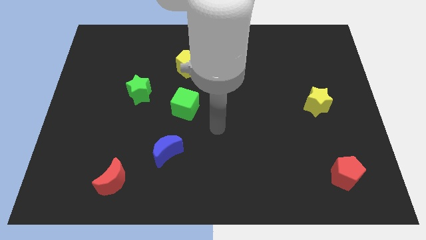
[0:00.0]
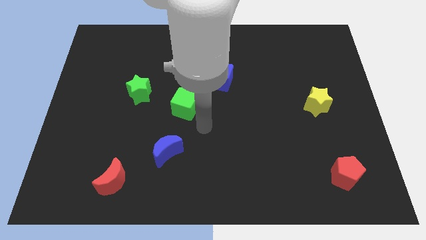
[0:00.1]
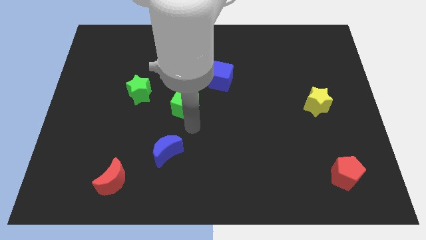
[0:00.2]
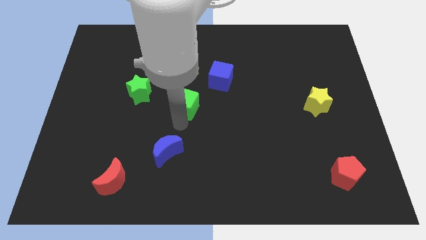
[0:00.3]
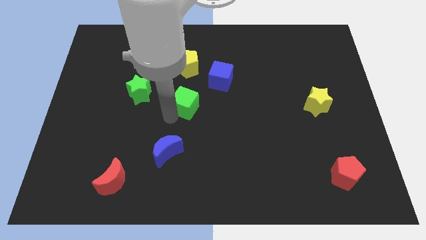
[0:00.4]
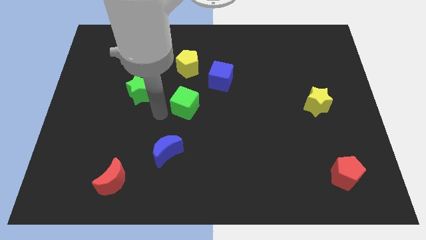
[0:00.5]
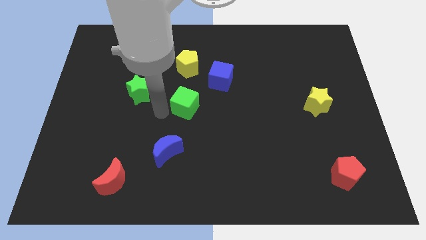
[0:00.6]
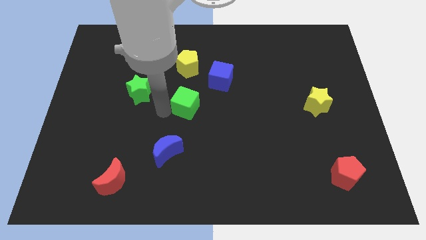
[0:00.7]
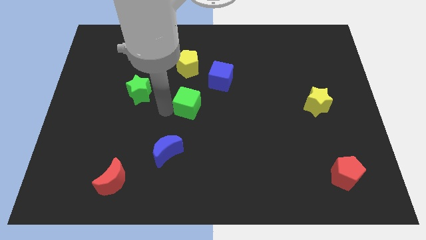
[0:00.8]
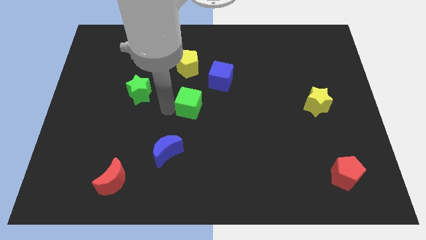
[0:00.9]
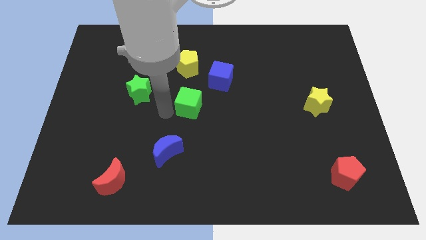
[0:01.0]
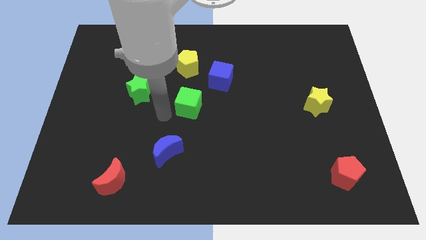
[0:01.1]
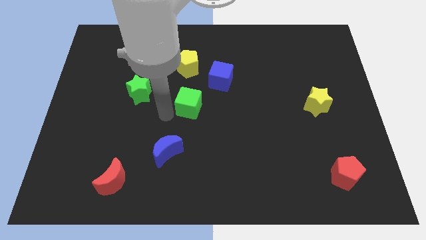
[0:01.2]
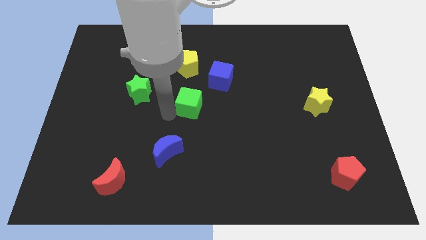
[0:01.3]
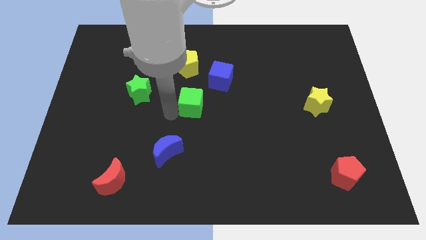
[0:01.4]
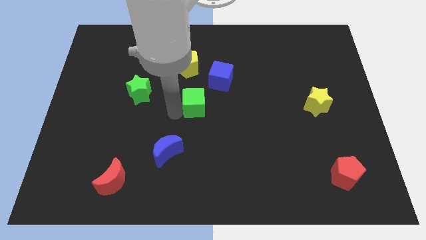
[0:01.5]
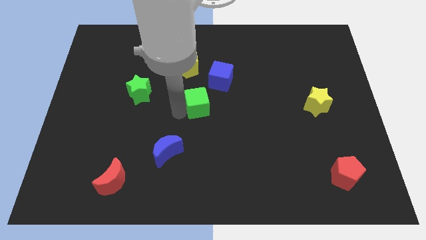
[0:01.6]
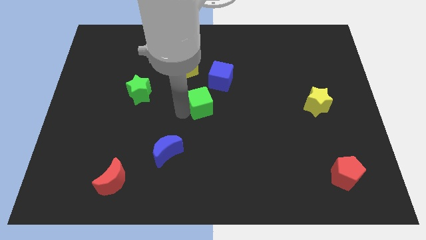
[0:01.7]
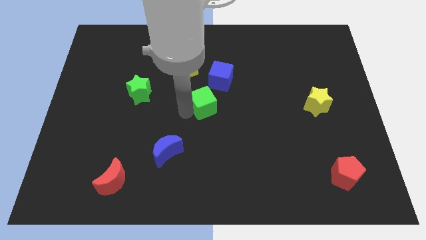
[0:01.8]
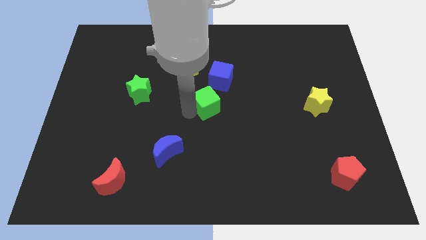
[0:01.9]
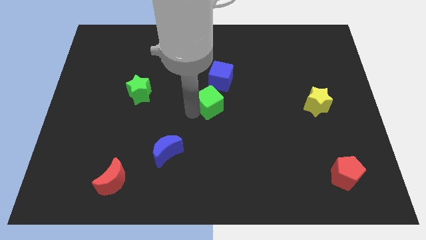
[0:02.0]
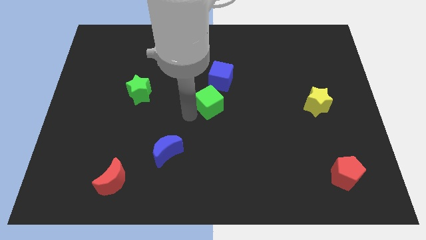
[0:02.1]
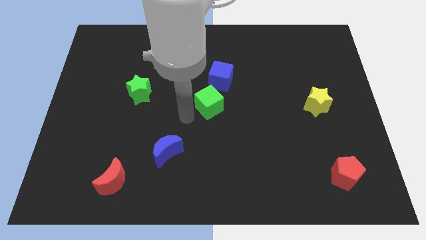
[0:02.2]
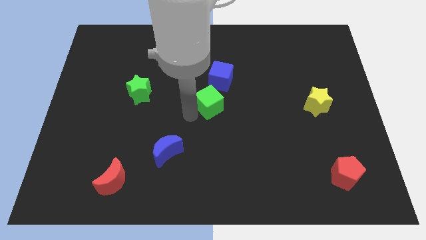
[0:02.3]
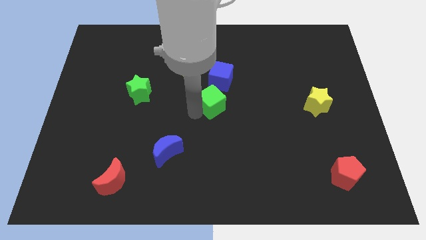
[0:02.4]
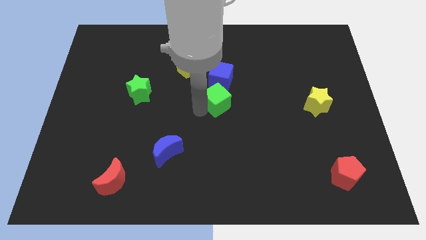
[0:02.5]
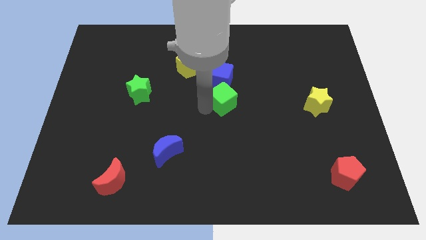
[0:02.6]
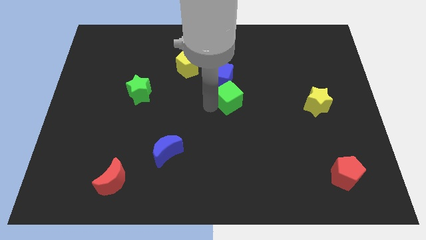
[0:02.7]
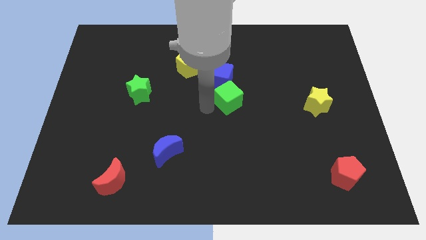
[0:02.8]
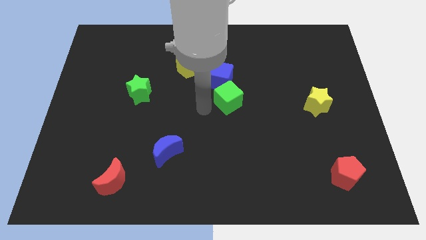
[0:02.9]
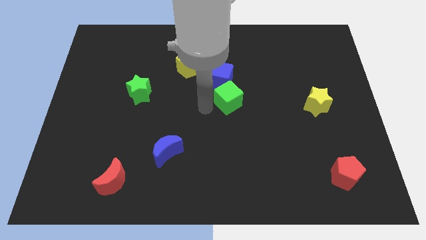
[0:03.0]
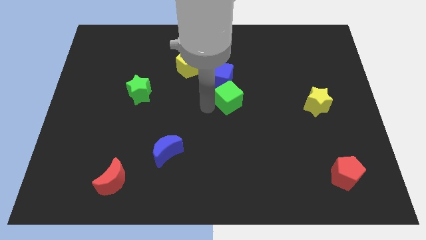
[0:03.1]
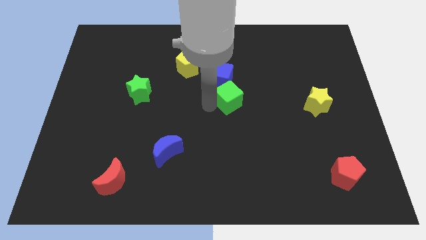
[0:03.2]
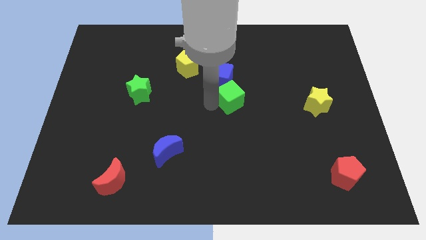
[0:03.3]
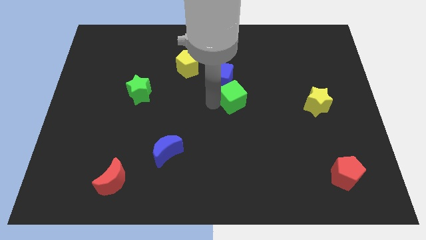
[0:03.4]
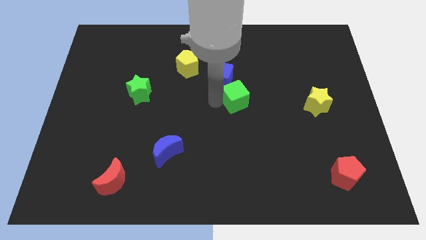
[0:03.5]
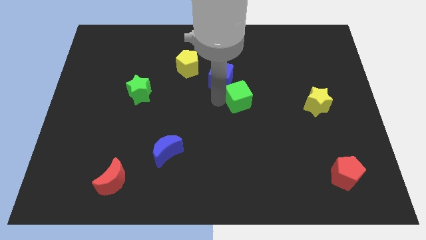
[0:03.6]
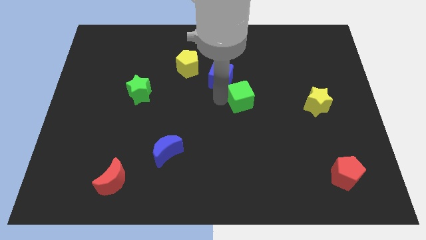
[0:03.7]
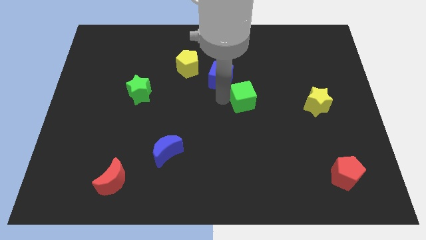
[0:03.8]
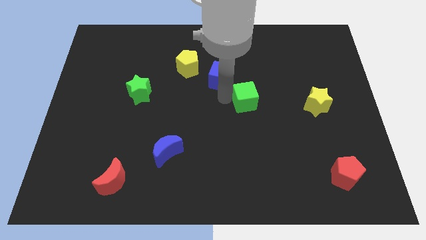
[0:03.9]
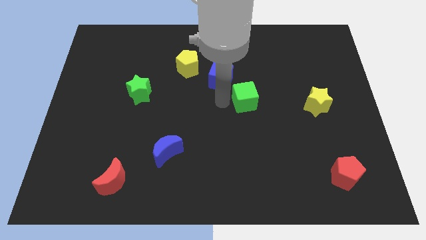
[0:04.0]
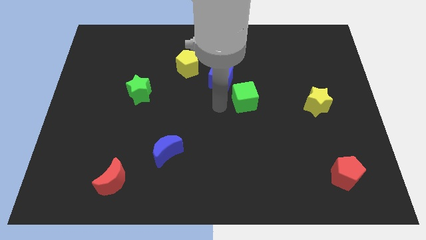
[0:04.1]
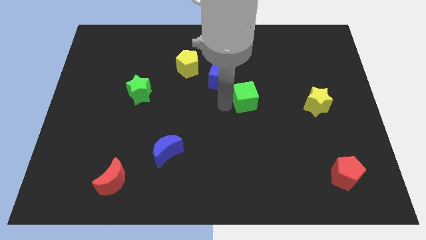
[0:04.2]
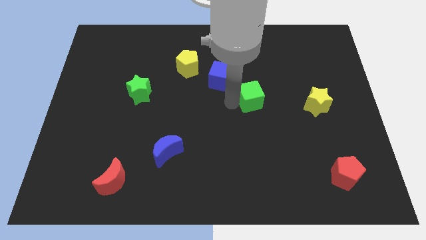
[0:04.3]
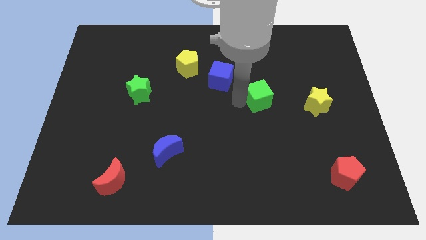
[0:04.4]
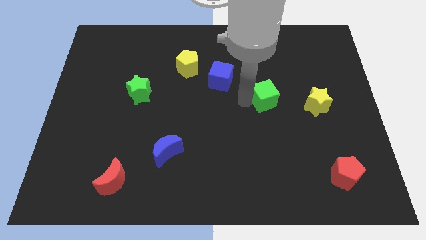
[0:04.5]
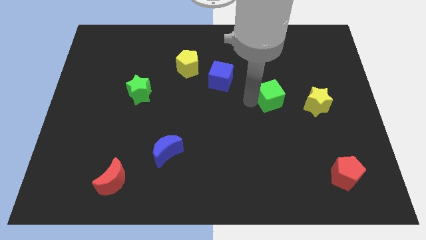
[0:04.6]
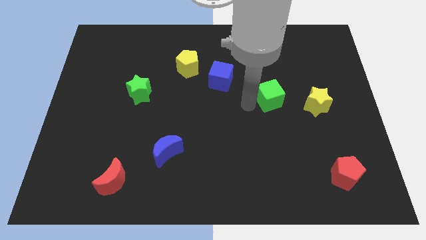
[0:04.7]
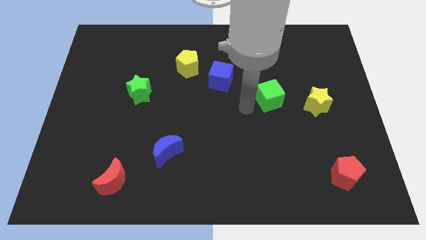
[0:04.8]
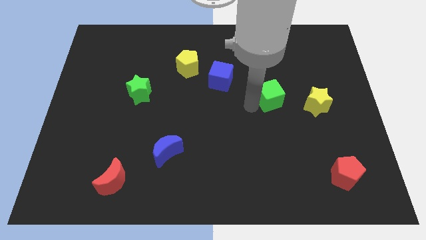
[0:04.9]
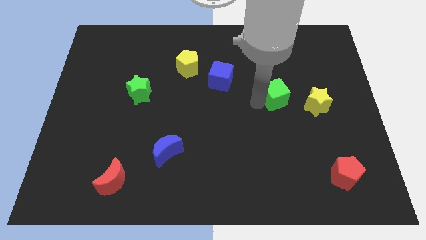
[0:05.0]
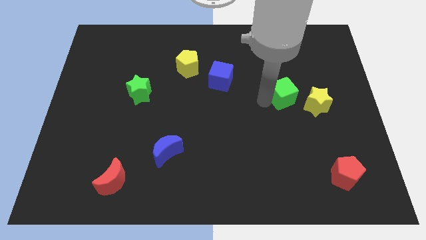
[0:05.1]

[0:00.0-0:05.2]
move the green cube to the top left side of the yellow star

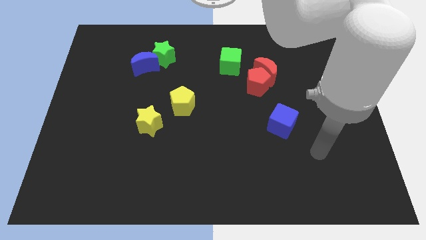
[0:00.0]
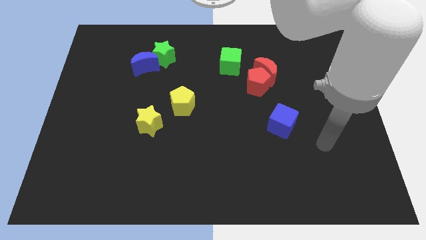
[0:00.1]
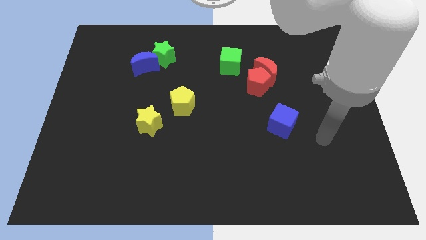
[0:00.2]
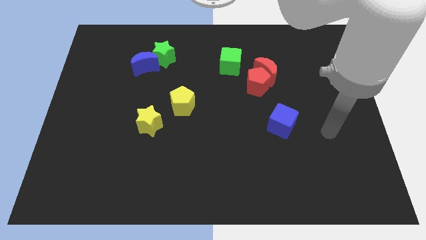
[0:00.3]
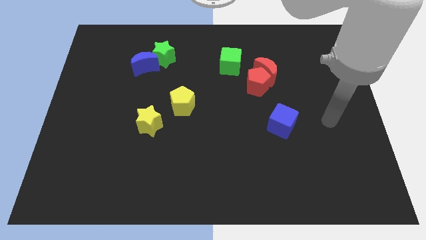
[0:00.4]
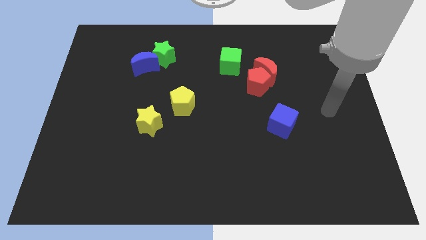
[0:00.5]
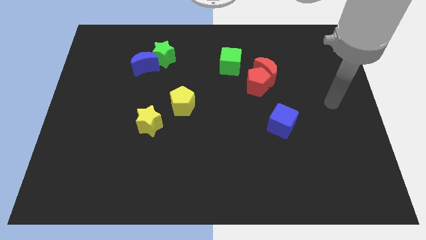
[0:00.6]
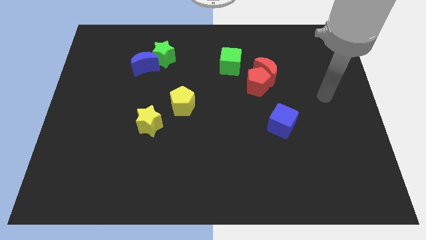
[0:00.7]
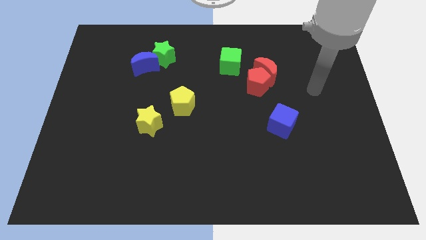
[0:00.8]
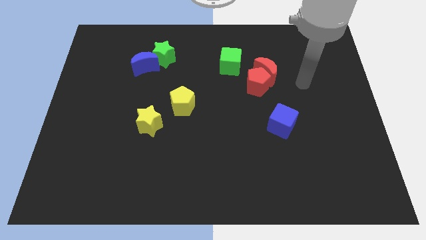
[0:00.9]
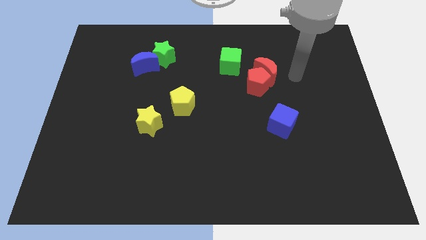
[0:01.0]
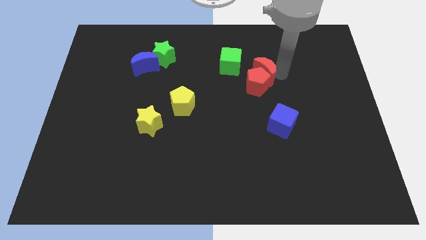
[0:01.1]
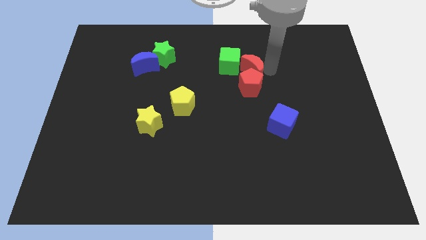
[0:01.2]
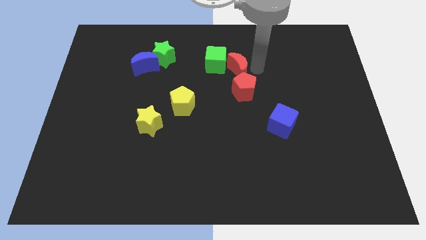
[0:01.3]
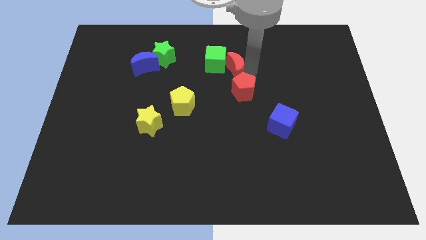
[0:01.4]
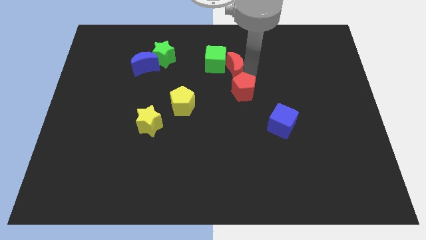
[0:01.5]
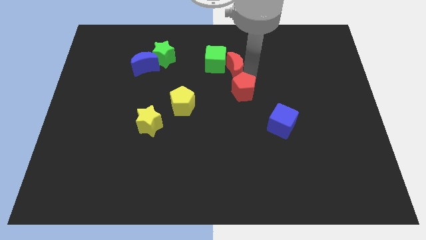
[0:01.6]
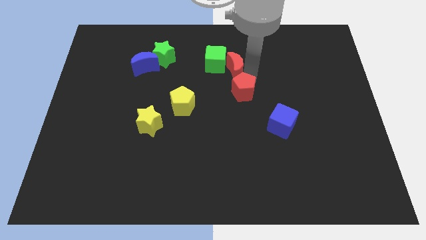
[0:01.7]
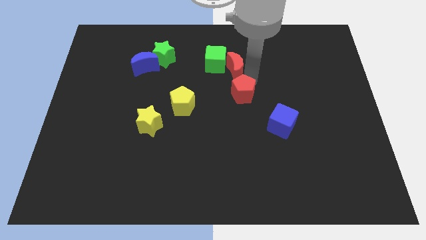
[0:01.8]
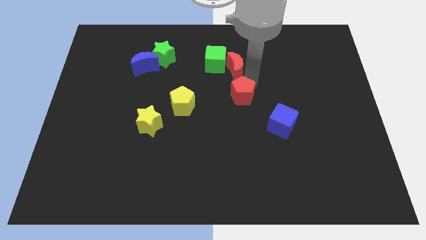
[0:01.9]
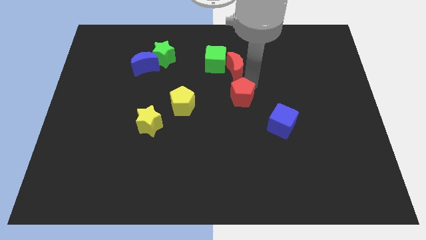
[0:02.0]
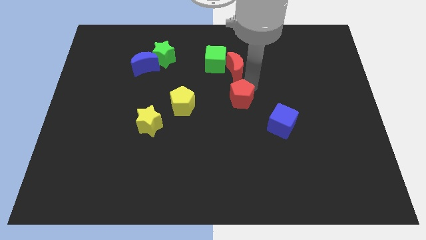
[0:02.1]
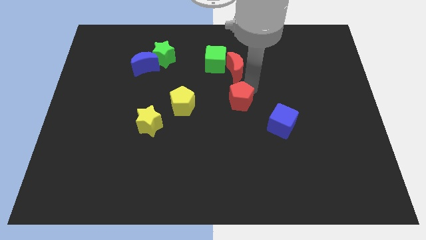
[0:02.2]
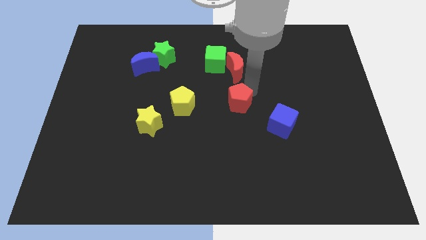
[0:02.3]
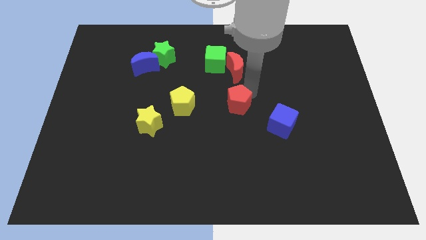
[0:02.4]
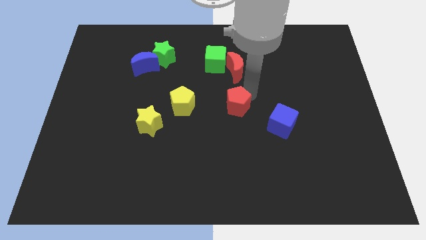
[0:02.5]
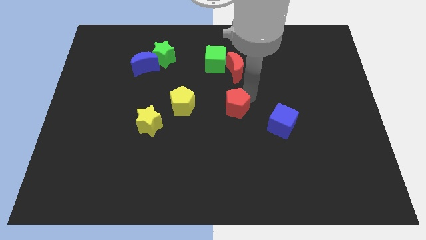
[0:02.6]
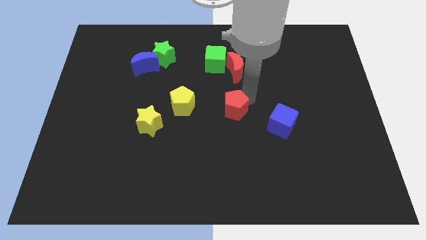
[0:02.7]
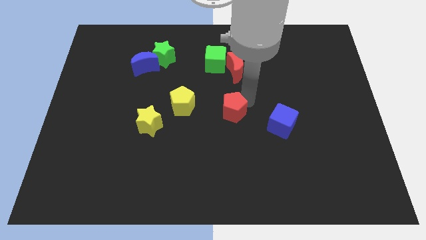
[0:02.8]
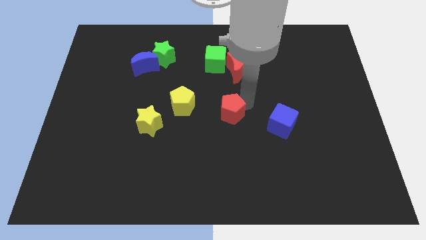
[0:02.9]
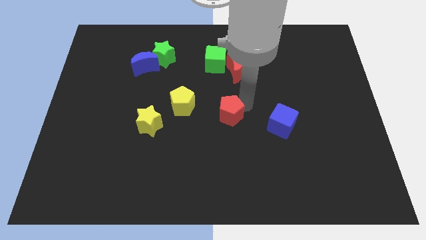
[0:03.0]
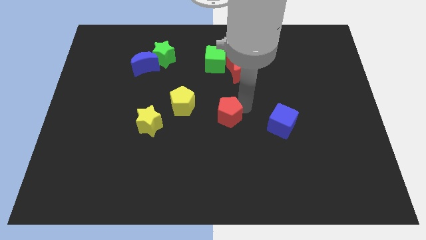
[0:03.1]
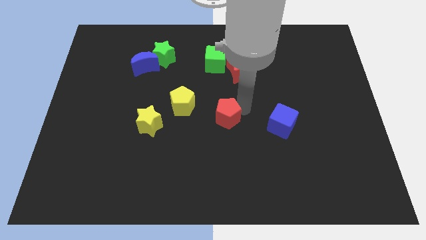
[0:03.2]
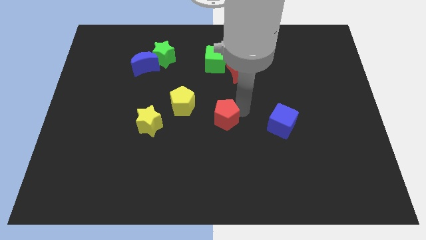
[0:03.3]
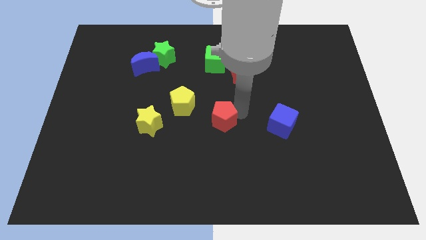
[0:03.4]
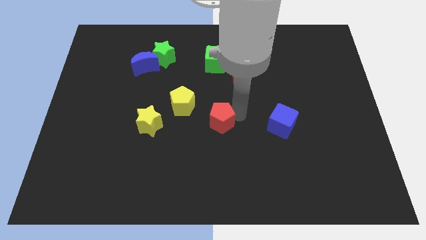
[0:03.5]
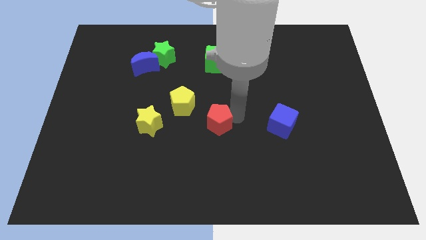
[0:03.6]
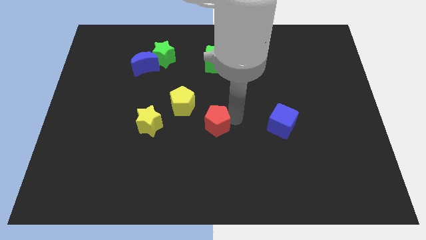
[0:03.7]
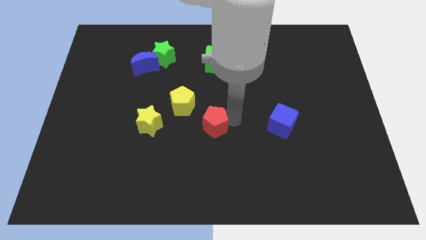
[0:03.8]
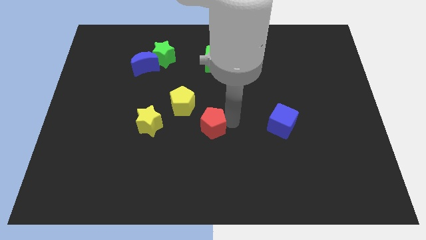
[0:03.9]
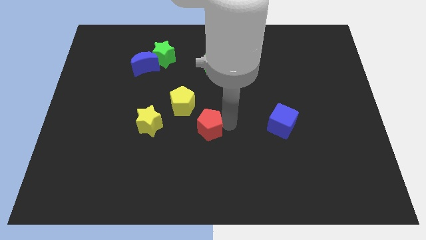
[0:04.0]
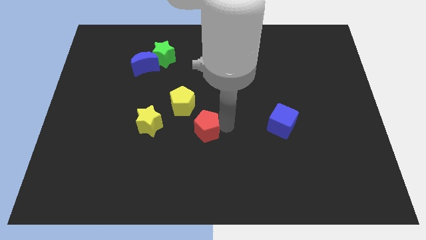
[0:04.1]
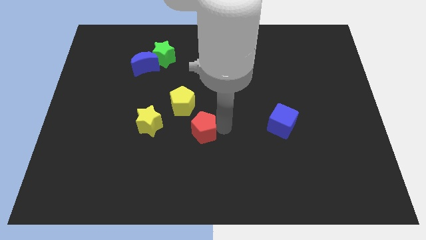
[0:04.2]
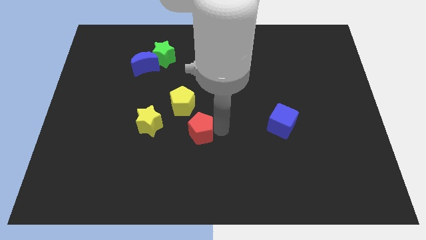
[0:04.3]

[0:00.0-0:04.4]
slide the red pentagon below the yellow pentagon
